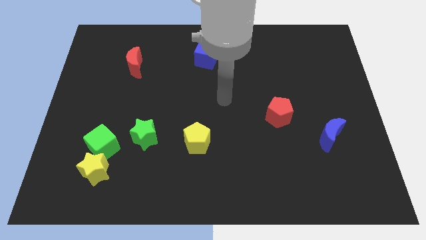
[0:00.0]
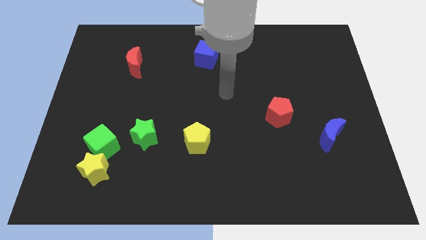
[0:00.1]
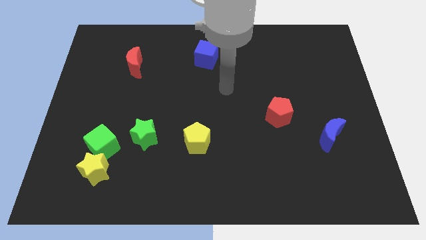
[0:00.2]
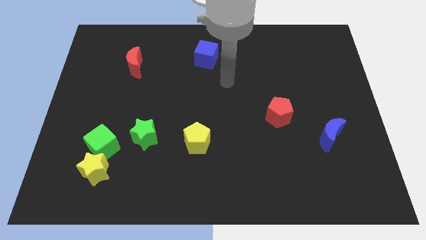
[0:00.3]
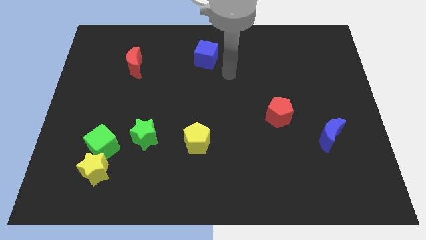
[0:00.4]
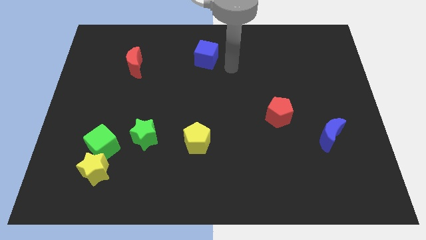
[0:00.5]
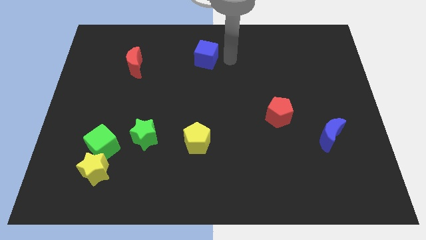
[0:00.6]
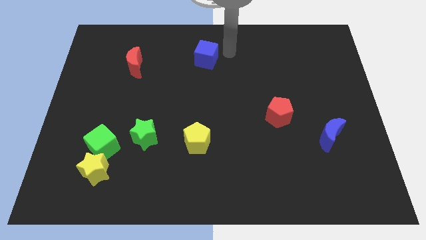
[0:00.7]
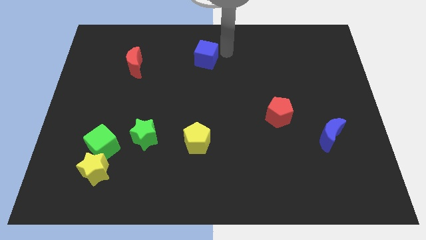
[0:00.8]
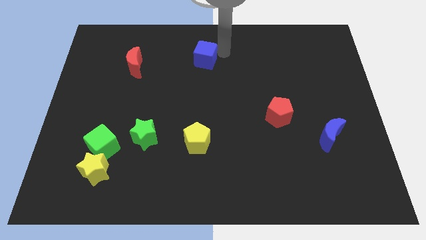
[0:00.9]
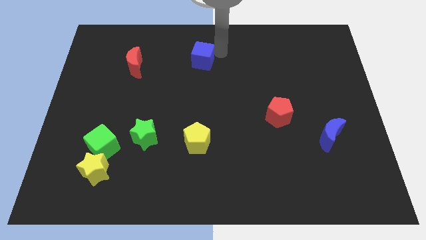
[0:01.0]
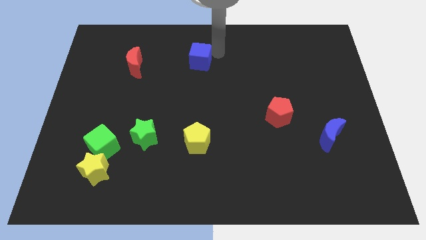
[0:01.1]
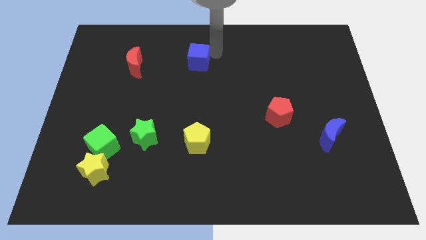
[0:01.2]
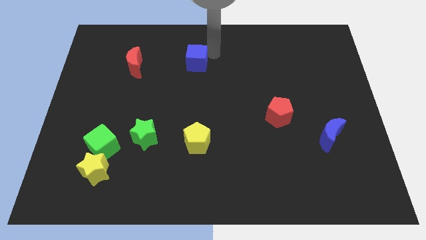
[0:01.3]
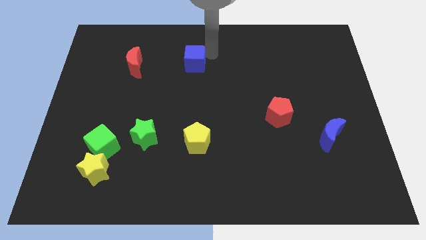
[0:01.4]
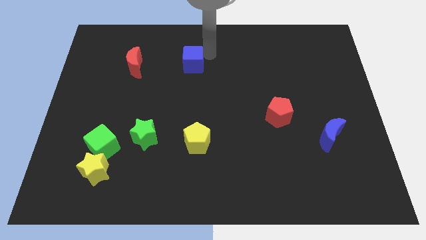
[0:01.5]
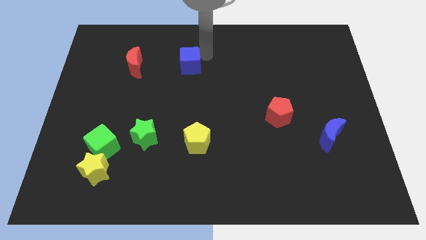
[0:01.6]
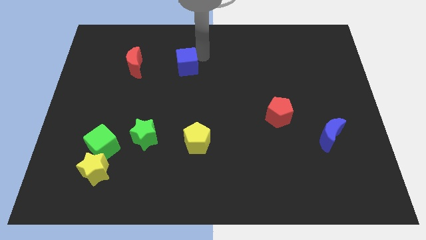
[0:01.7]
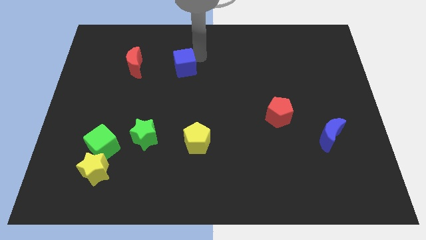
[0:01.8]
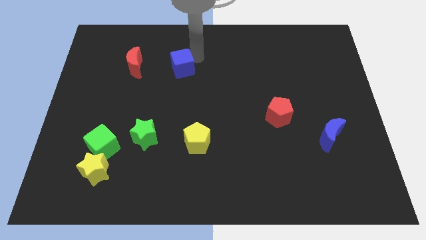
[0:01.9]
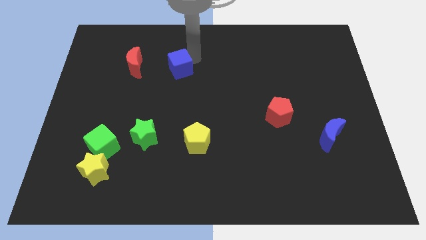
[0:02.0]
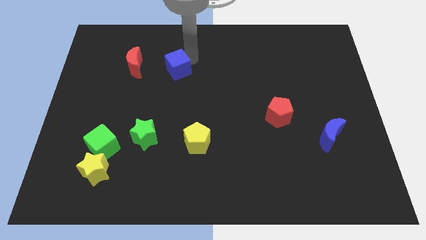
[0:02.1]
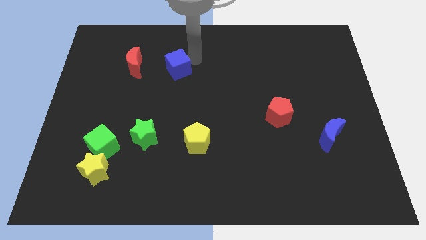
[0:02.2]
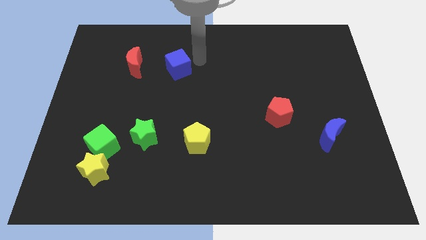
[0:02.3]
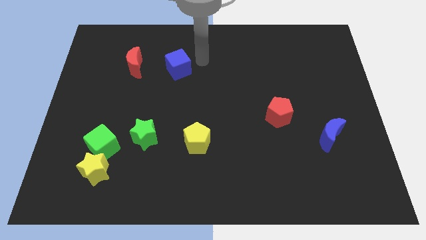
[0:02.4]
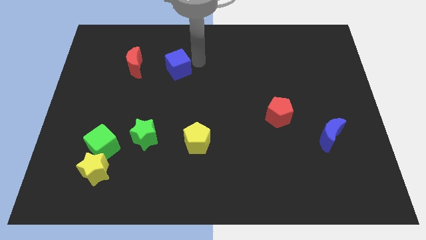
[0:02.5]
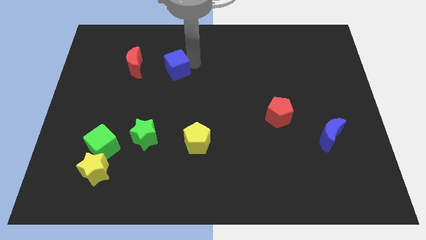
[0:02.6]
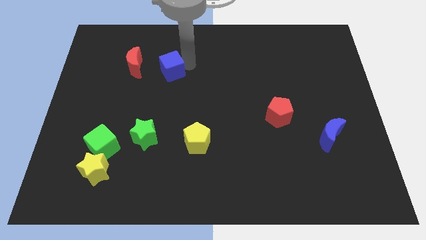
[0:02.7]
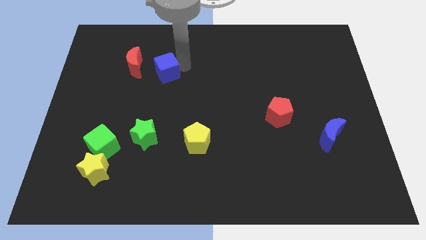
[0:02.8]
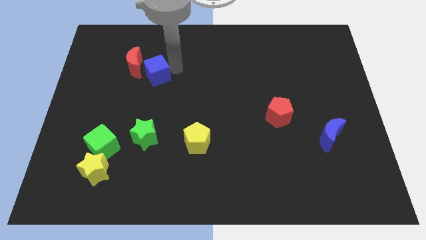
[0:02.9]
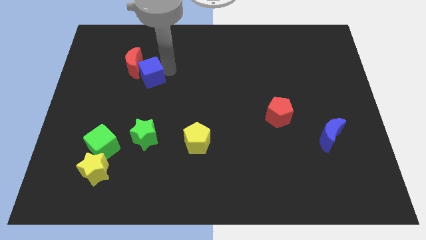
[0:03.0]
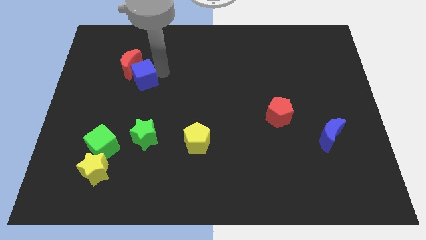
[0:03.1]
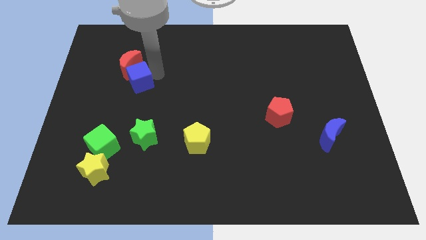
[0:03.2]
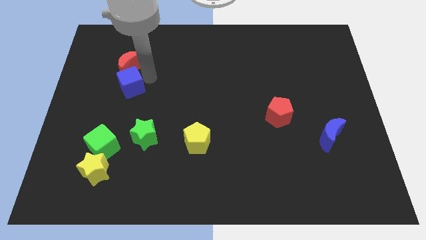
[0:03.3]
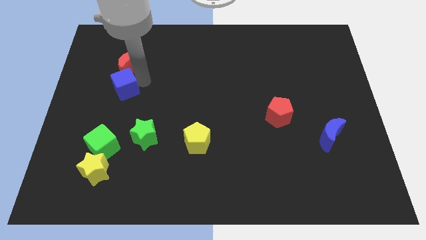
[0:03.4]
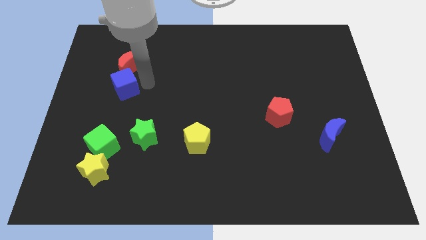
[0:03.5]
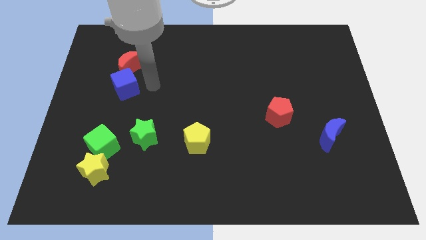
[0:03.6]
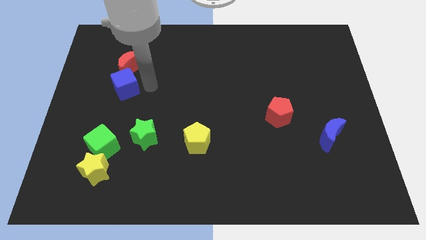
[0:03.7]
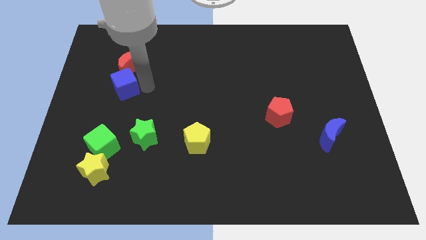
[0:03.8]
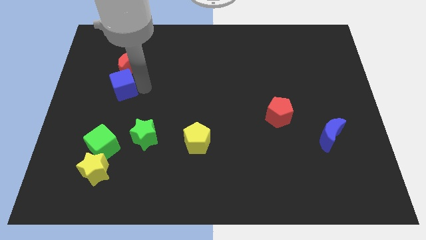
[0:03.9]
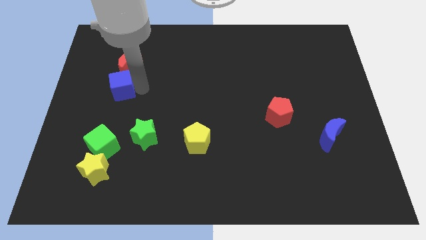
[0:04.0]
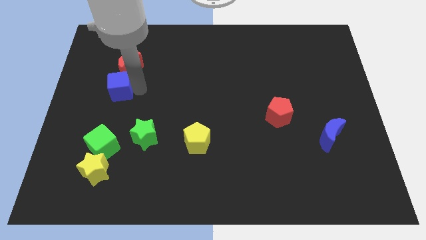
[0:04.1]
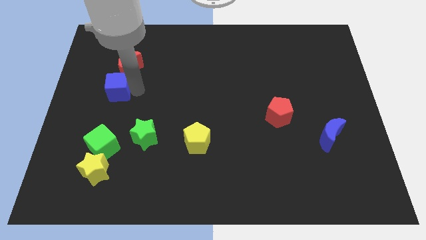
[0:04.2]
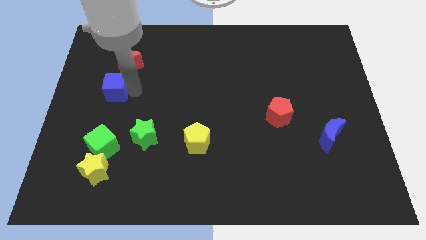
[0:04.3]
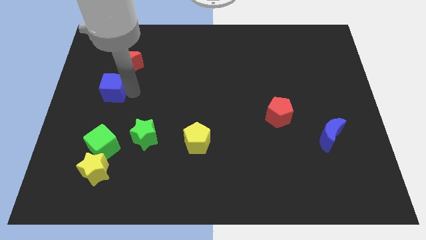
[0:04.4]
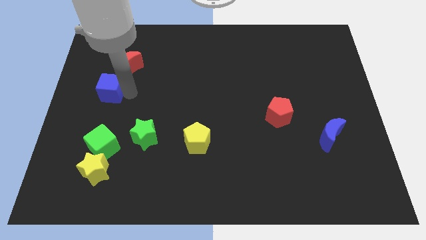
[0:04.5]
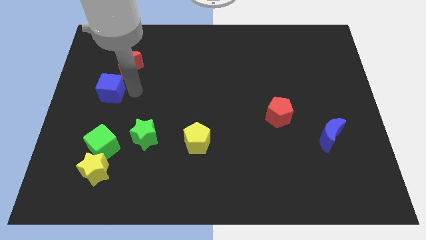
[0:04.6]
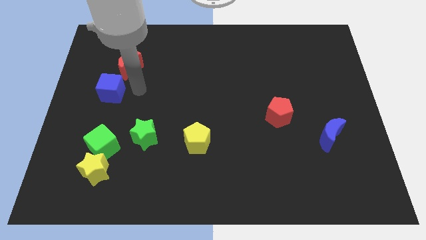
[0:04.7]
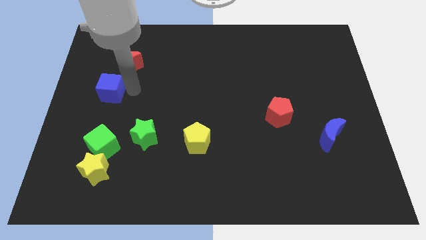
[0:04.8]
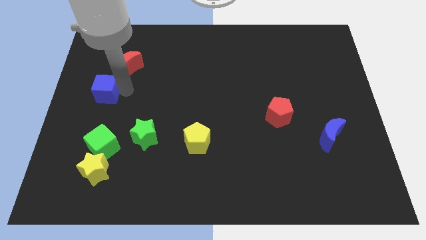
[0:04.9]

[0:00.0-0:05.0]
slide the blue cube to the center left

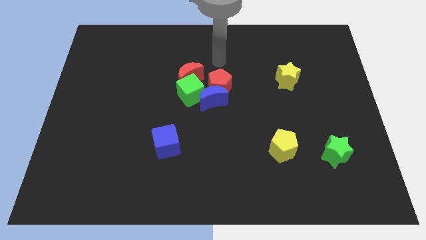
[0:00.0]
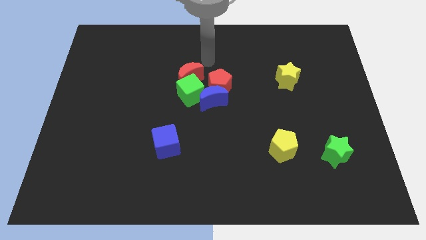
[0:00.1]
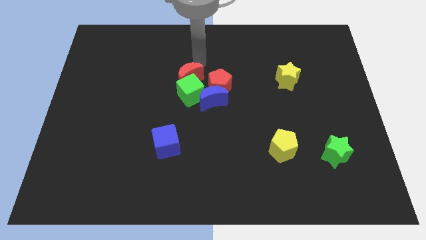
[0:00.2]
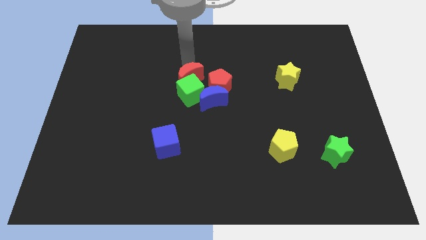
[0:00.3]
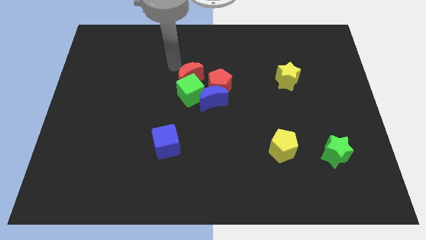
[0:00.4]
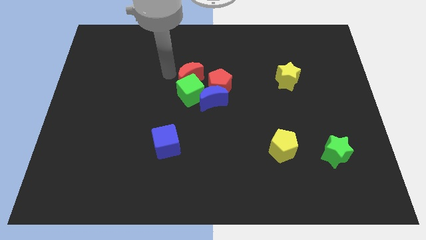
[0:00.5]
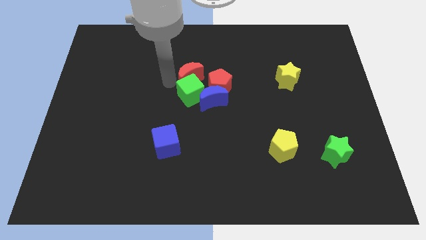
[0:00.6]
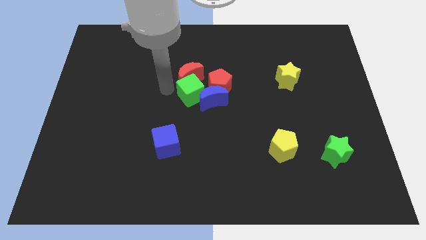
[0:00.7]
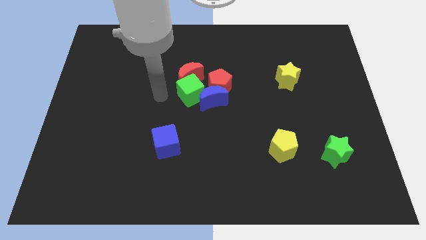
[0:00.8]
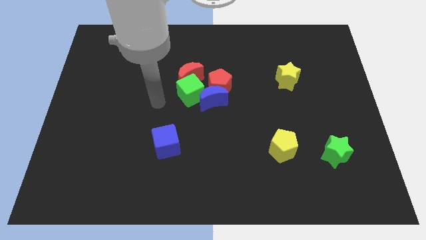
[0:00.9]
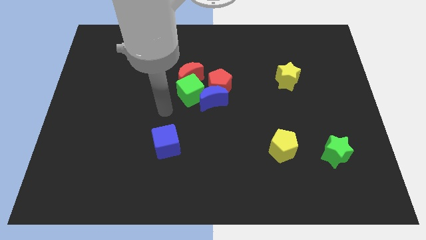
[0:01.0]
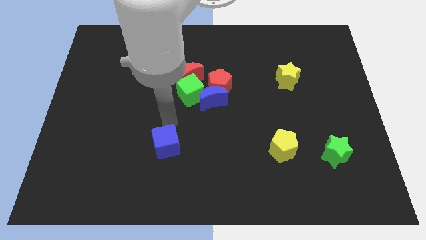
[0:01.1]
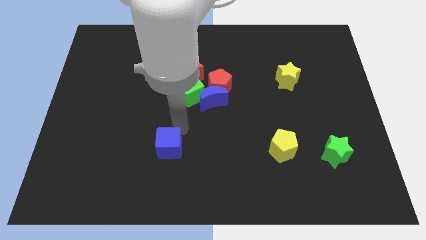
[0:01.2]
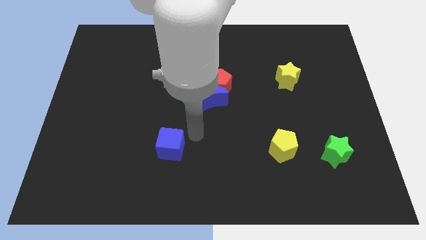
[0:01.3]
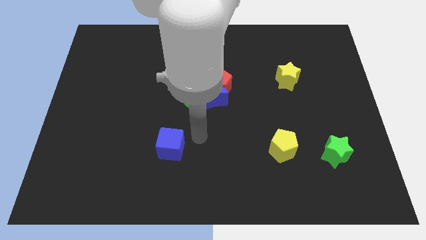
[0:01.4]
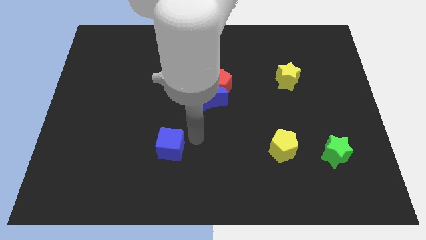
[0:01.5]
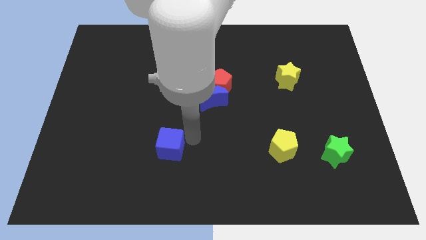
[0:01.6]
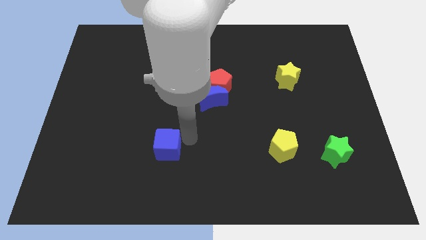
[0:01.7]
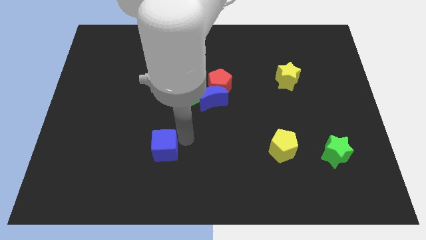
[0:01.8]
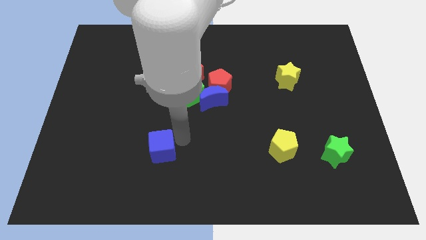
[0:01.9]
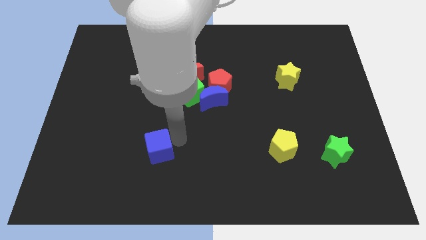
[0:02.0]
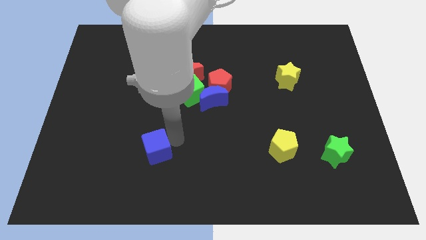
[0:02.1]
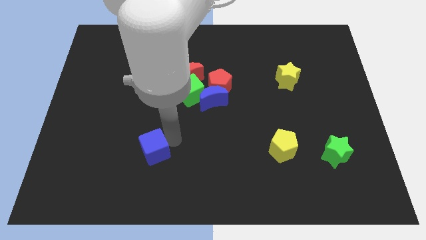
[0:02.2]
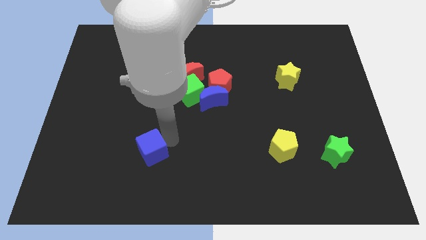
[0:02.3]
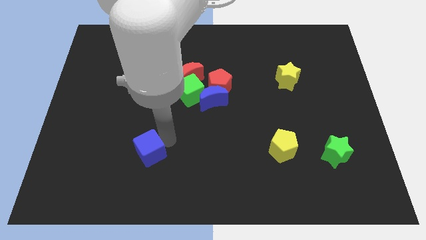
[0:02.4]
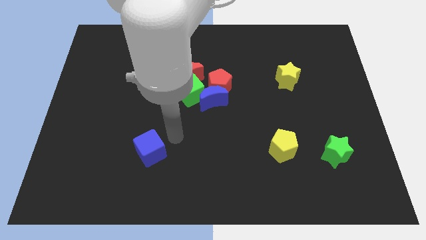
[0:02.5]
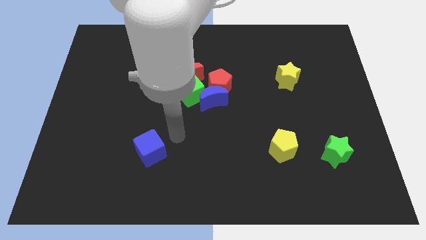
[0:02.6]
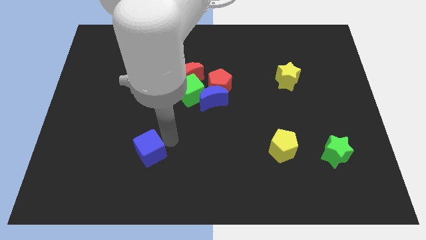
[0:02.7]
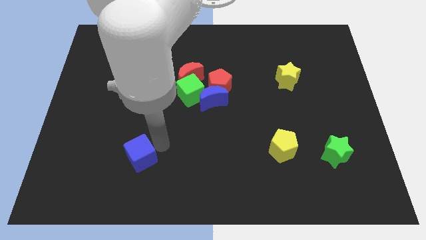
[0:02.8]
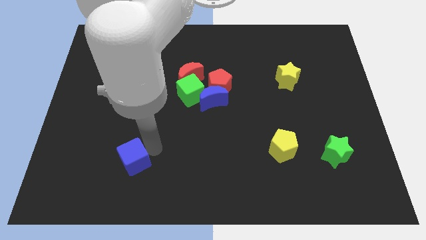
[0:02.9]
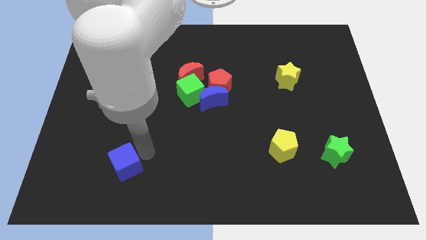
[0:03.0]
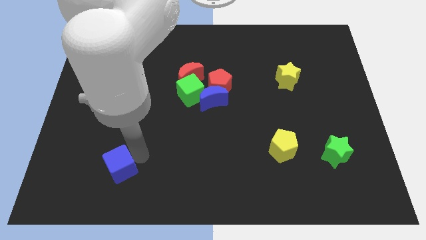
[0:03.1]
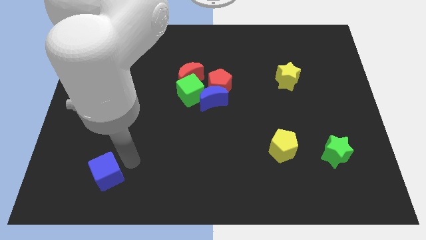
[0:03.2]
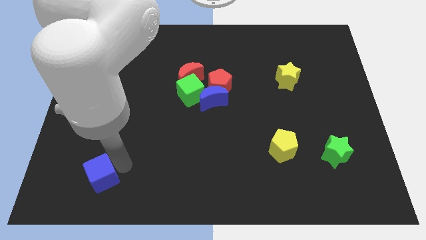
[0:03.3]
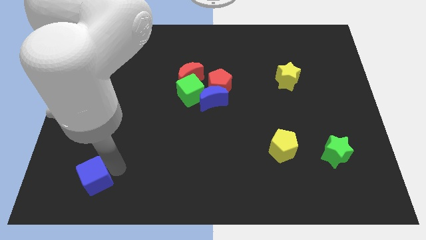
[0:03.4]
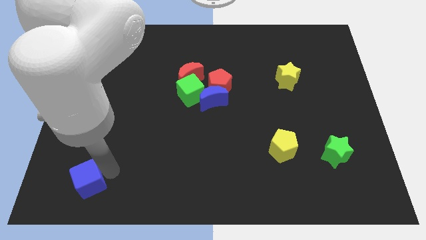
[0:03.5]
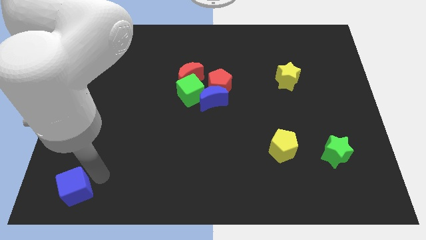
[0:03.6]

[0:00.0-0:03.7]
push the blue cube to the bottom left corner
